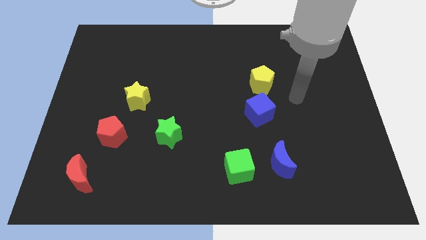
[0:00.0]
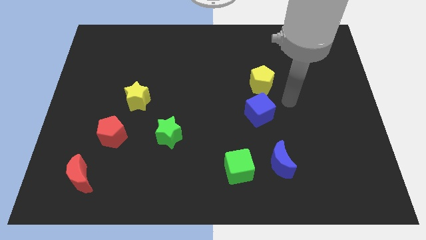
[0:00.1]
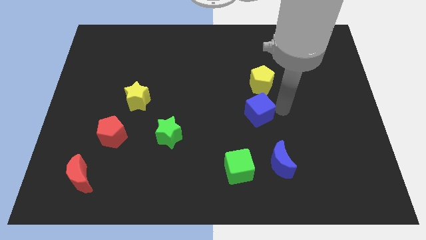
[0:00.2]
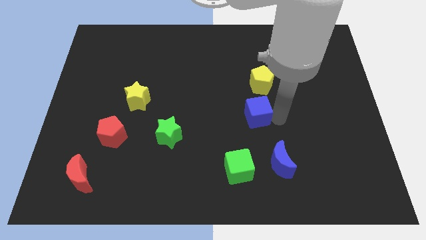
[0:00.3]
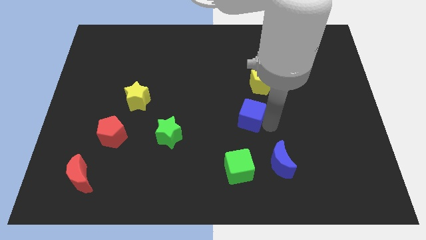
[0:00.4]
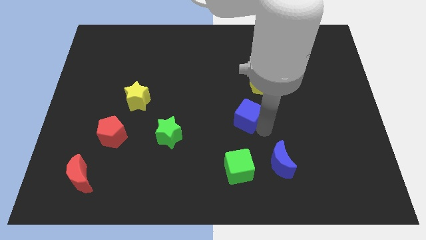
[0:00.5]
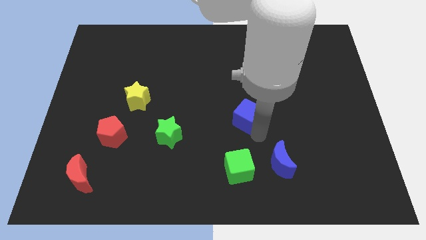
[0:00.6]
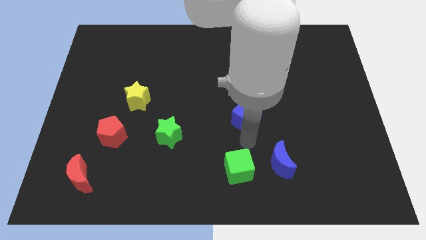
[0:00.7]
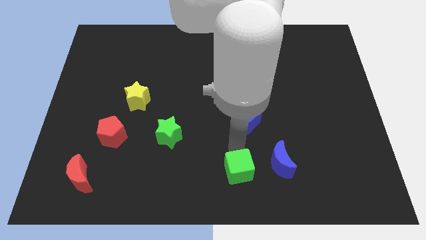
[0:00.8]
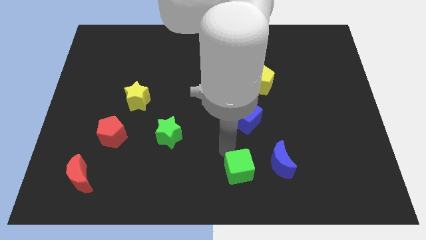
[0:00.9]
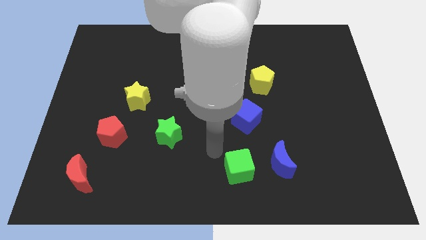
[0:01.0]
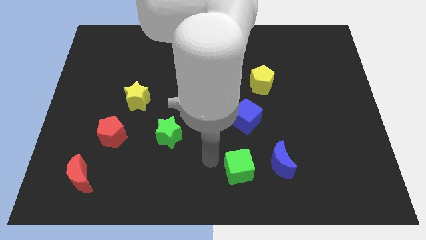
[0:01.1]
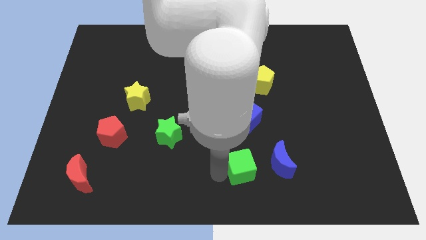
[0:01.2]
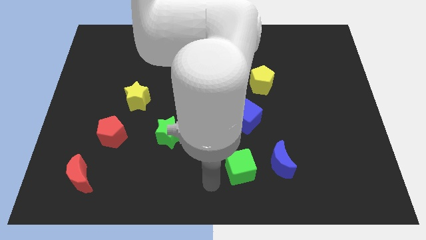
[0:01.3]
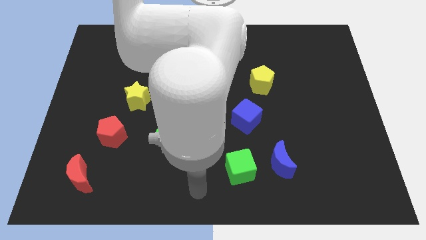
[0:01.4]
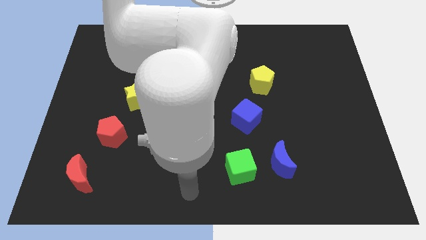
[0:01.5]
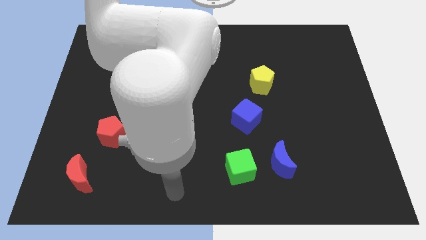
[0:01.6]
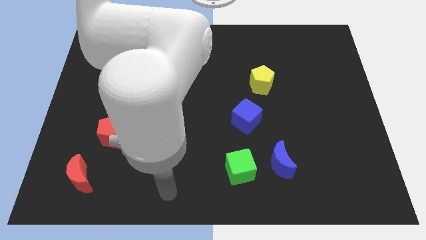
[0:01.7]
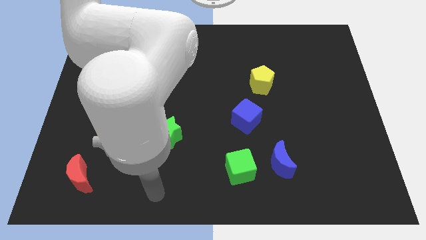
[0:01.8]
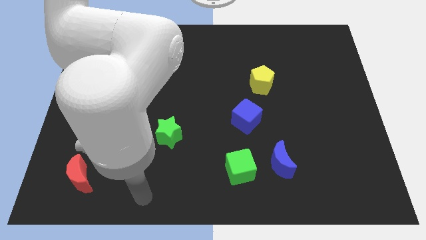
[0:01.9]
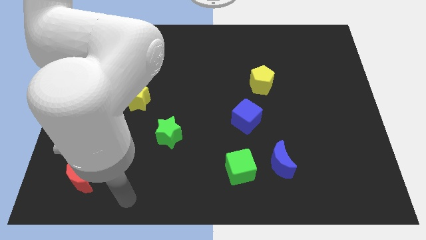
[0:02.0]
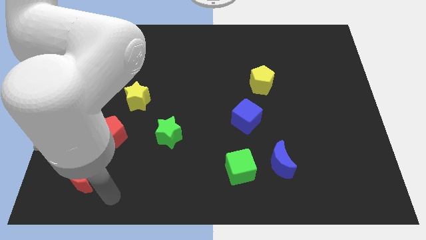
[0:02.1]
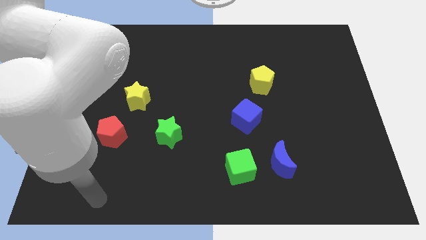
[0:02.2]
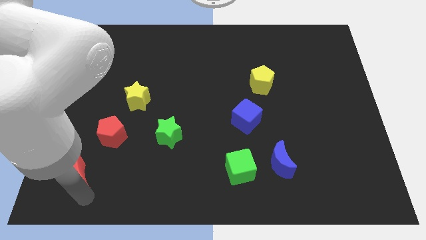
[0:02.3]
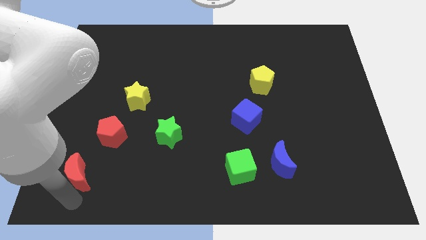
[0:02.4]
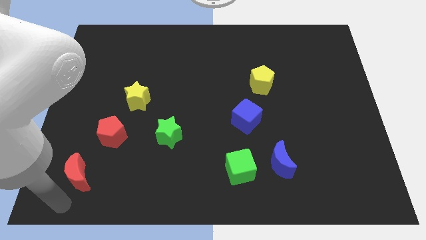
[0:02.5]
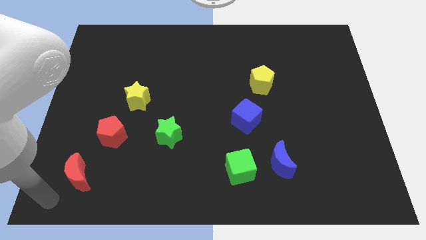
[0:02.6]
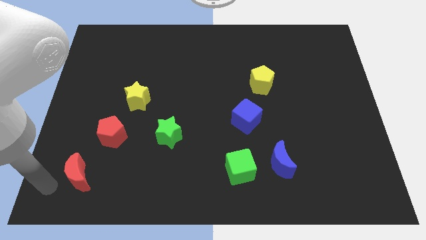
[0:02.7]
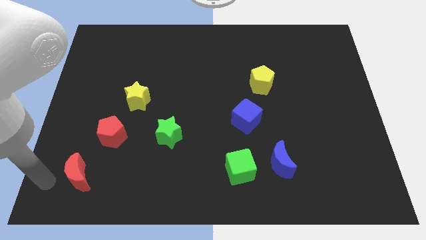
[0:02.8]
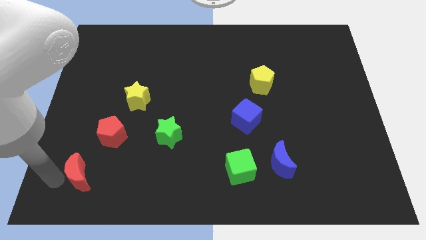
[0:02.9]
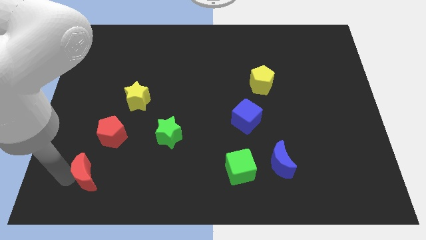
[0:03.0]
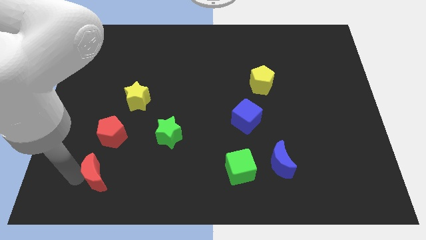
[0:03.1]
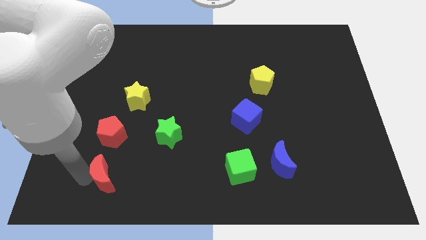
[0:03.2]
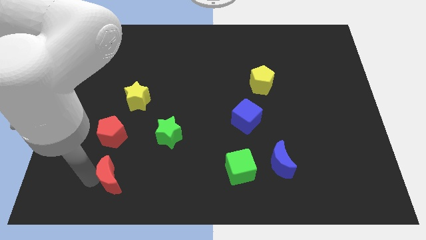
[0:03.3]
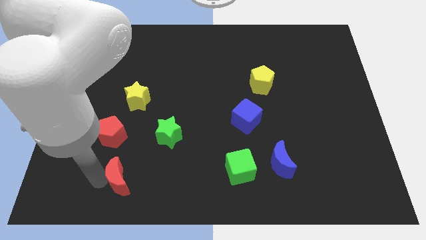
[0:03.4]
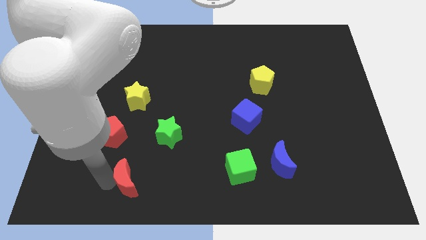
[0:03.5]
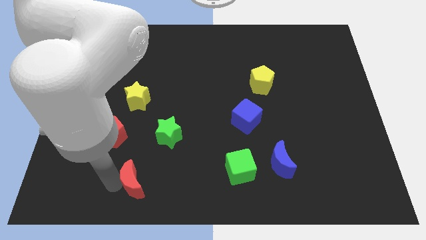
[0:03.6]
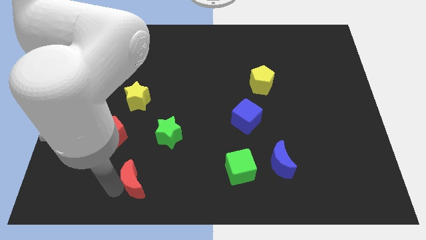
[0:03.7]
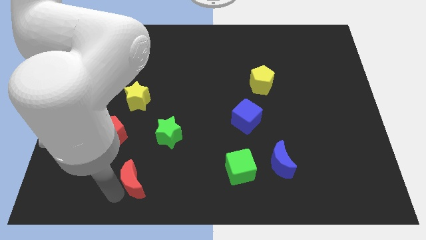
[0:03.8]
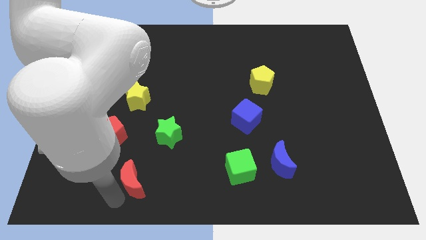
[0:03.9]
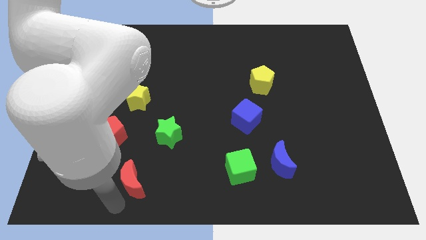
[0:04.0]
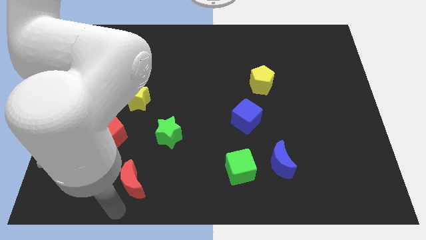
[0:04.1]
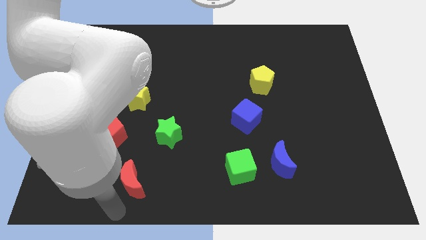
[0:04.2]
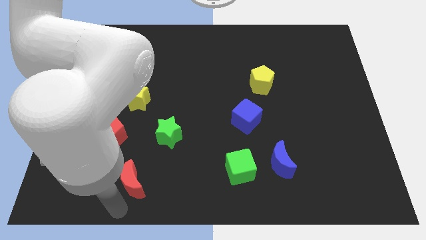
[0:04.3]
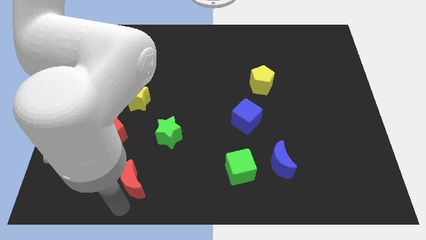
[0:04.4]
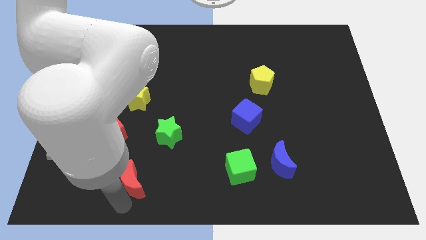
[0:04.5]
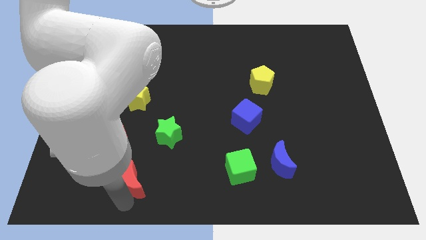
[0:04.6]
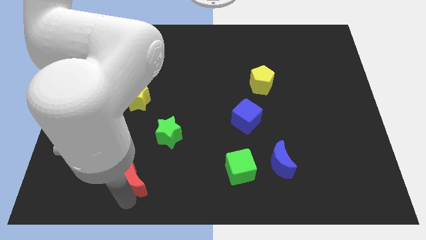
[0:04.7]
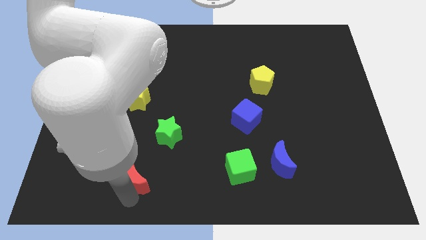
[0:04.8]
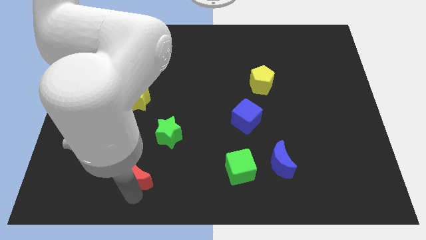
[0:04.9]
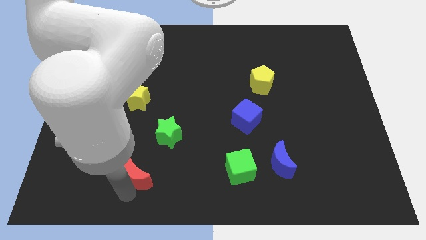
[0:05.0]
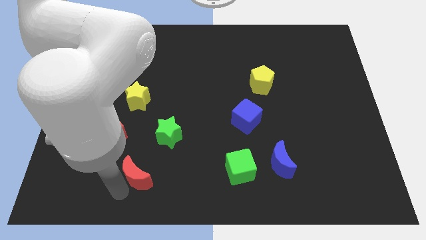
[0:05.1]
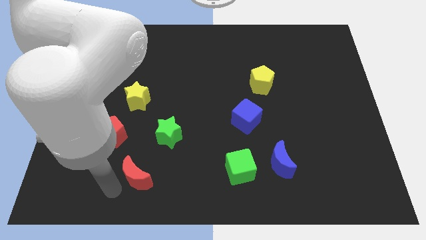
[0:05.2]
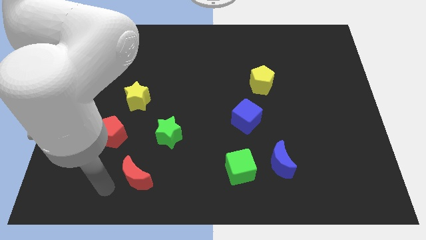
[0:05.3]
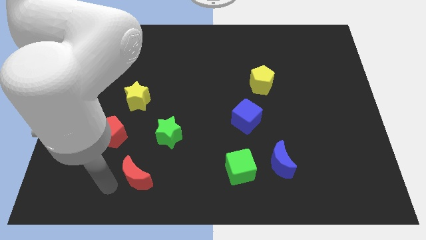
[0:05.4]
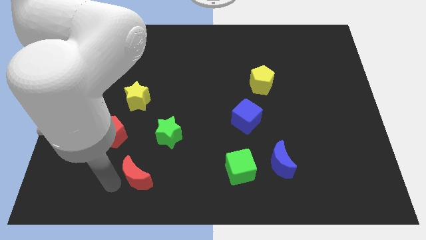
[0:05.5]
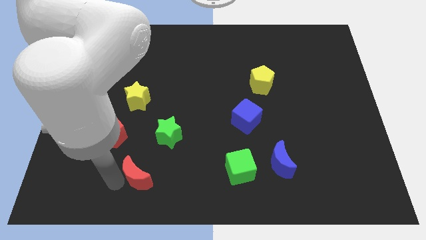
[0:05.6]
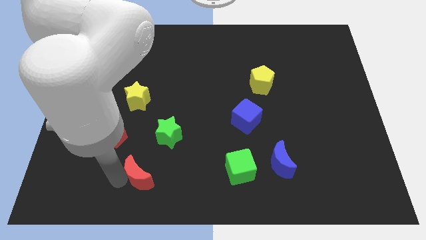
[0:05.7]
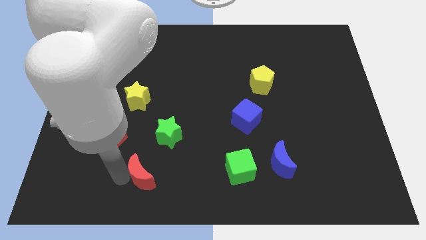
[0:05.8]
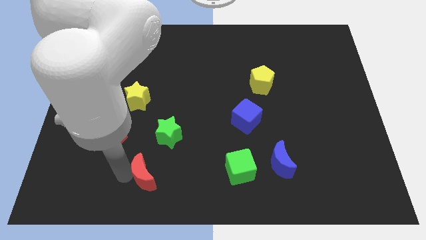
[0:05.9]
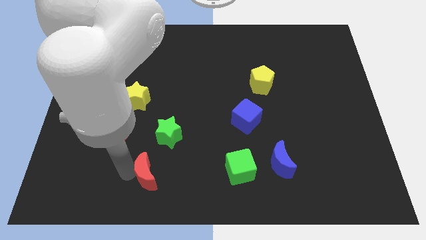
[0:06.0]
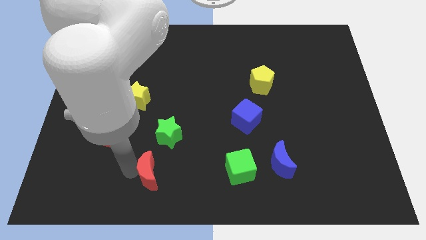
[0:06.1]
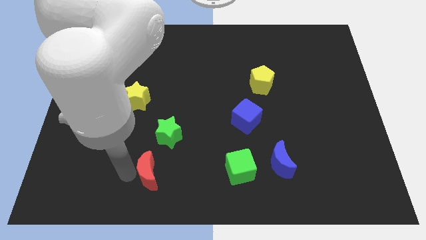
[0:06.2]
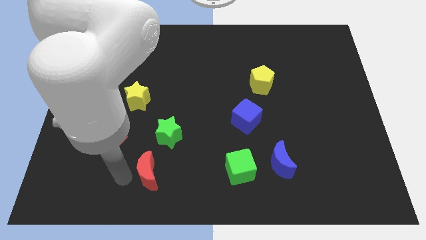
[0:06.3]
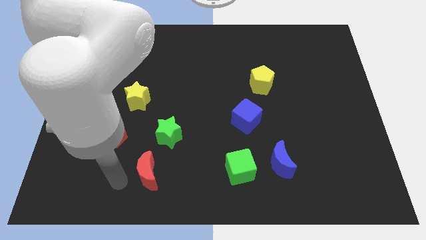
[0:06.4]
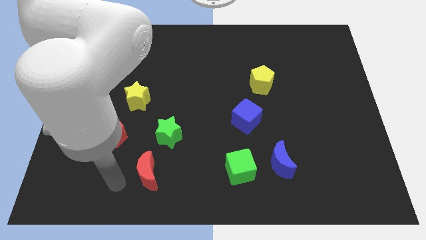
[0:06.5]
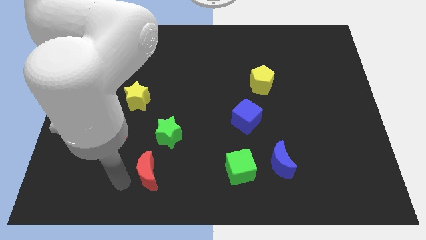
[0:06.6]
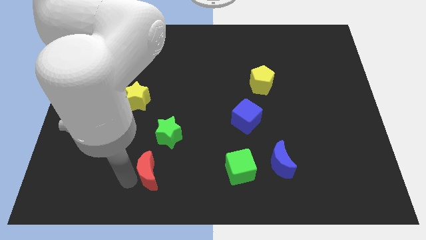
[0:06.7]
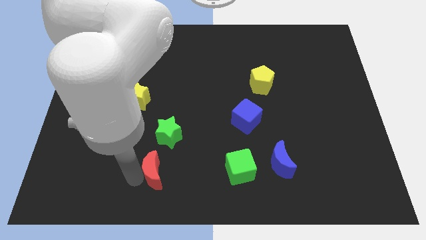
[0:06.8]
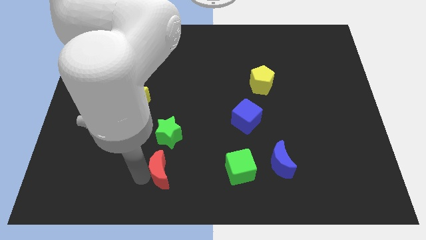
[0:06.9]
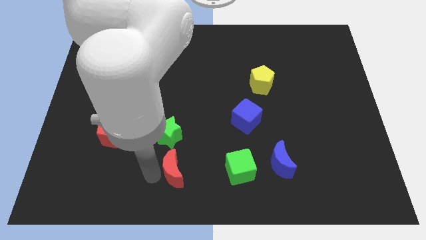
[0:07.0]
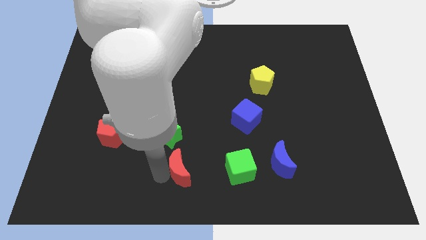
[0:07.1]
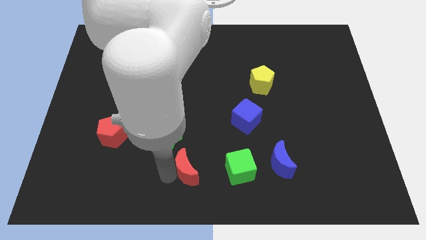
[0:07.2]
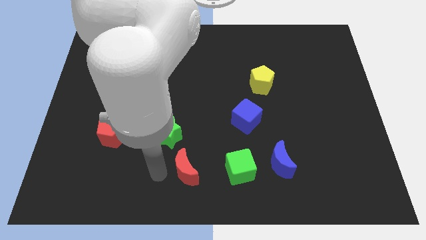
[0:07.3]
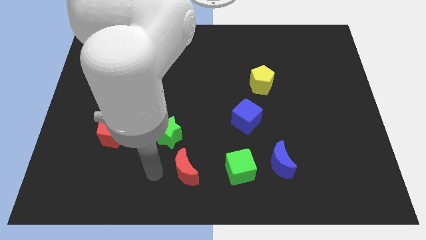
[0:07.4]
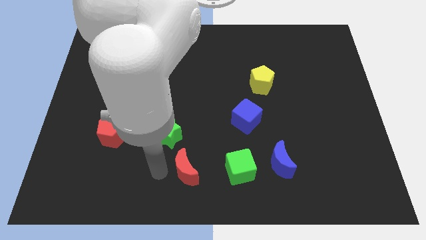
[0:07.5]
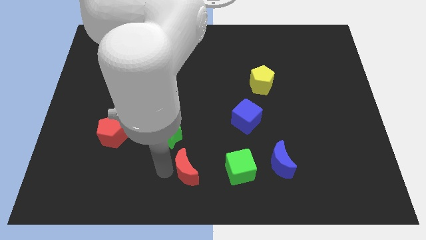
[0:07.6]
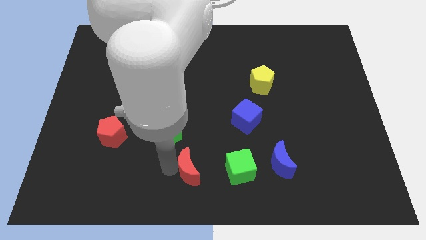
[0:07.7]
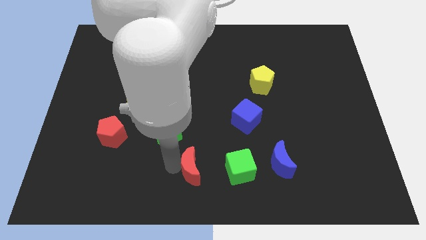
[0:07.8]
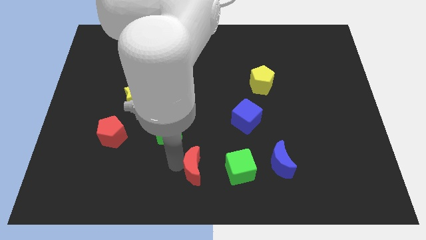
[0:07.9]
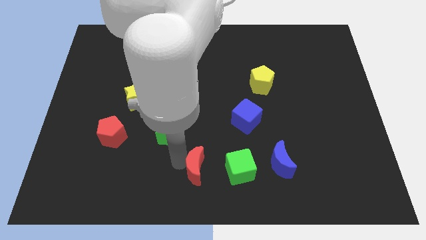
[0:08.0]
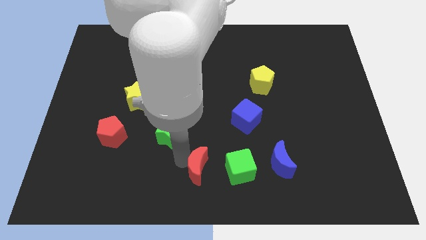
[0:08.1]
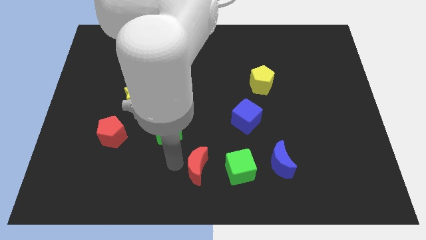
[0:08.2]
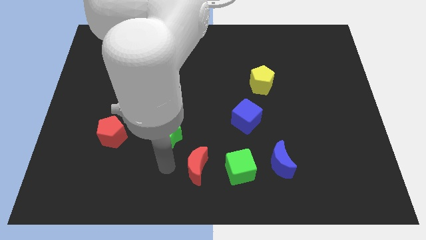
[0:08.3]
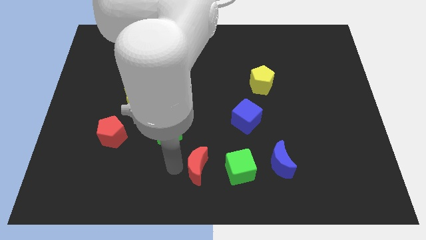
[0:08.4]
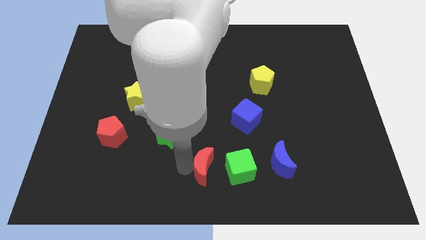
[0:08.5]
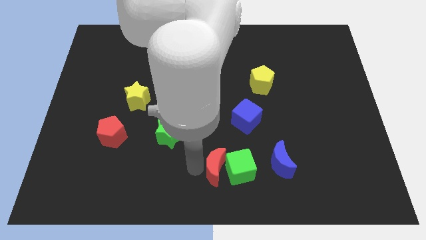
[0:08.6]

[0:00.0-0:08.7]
move the red moon close to the green cube
